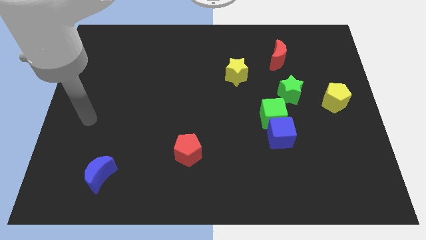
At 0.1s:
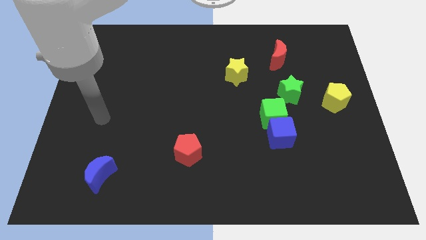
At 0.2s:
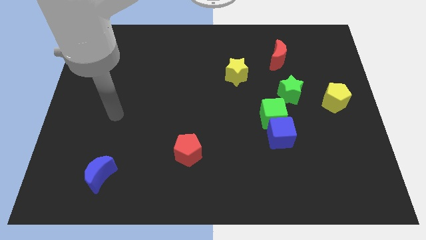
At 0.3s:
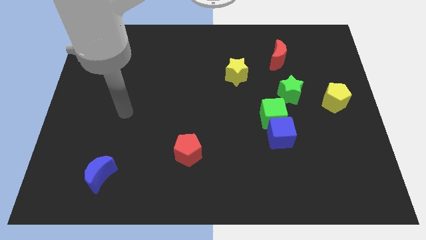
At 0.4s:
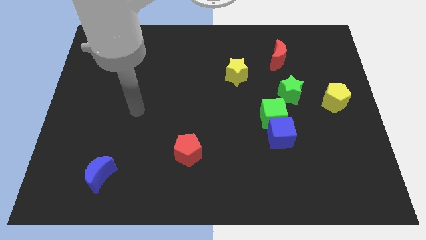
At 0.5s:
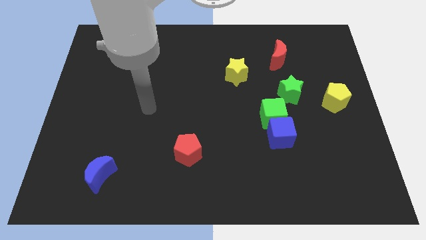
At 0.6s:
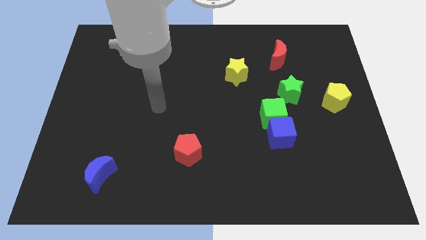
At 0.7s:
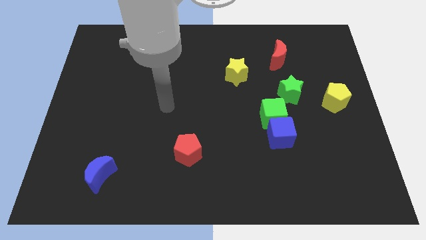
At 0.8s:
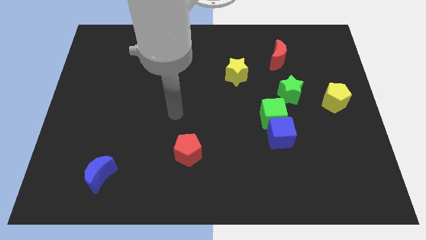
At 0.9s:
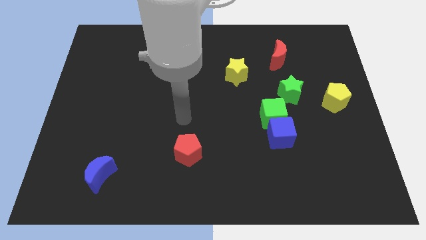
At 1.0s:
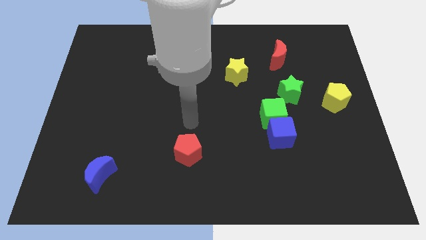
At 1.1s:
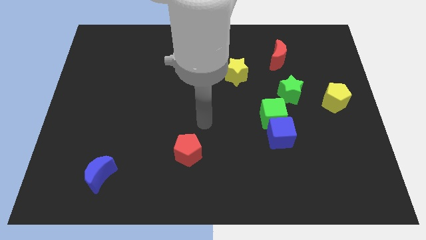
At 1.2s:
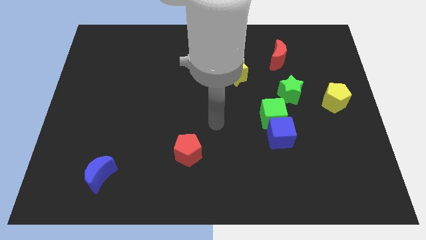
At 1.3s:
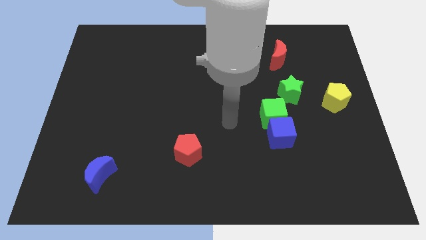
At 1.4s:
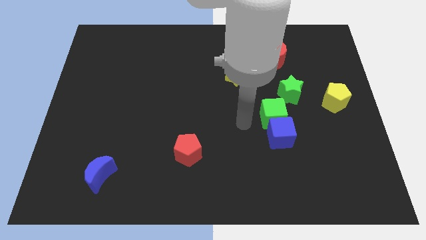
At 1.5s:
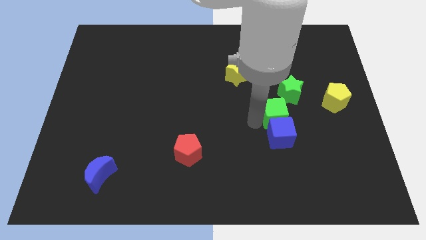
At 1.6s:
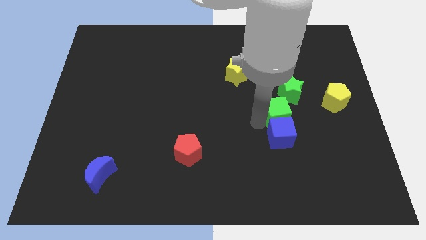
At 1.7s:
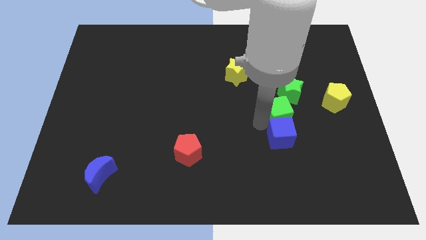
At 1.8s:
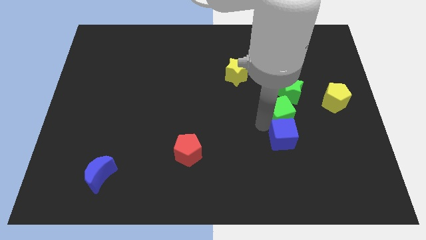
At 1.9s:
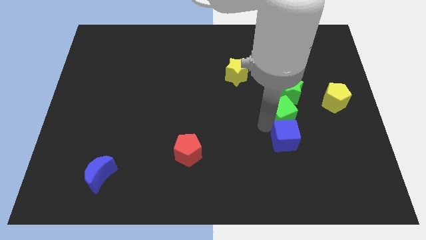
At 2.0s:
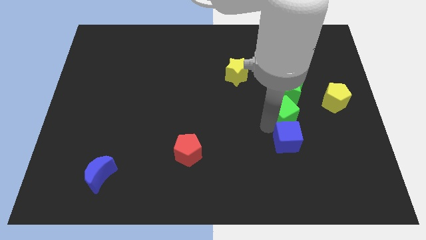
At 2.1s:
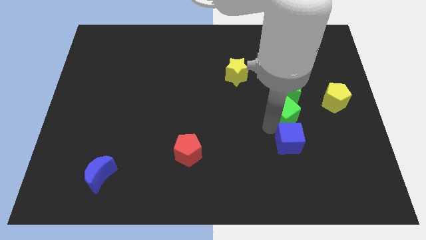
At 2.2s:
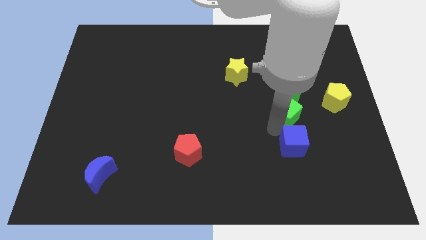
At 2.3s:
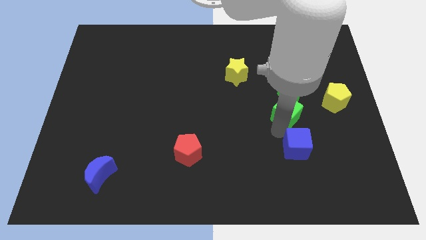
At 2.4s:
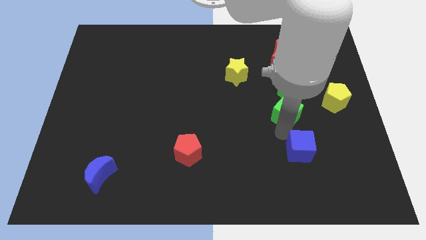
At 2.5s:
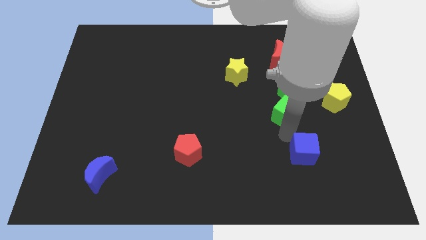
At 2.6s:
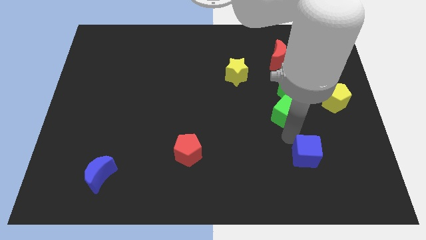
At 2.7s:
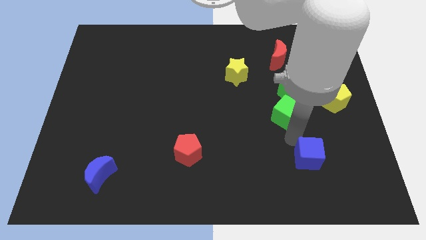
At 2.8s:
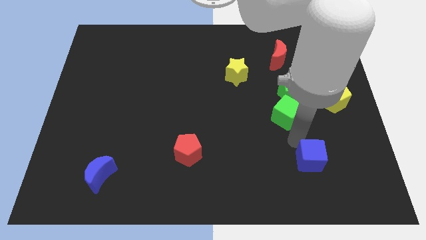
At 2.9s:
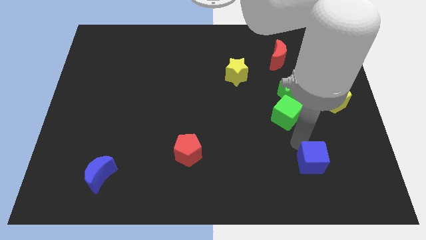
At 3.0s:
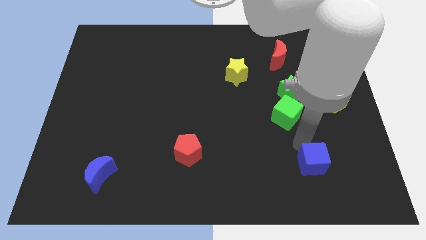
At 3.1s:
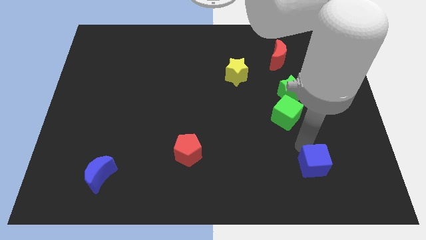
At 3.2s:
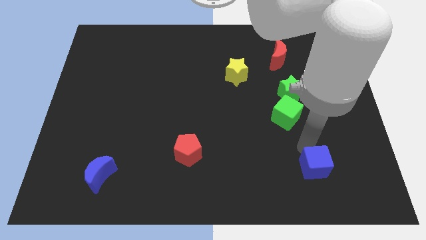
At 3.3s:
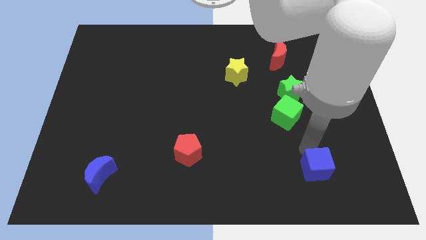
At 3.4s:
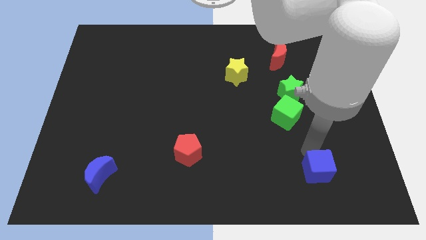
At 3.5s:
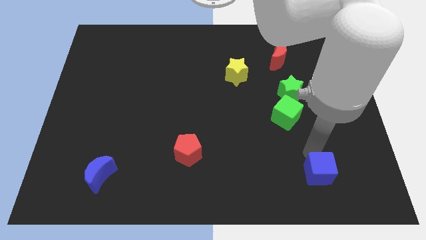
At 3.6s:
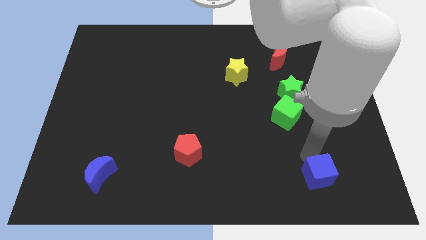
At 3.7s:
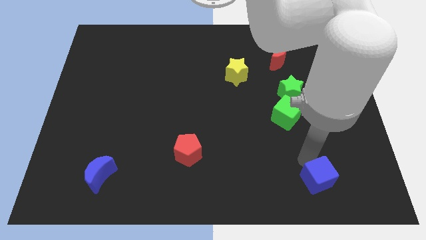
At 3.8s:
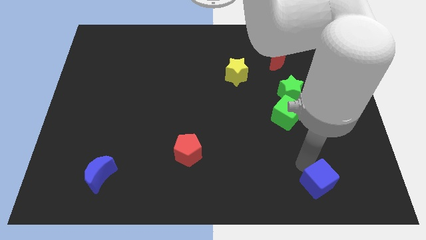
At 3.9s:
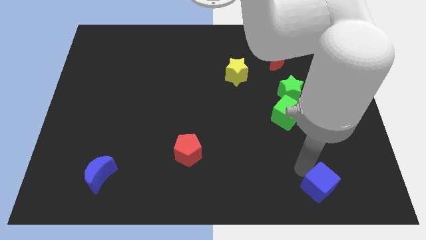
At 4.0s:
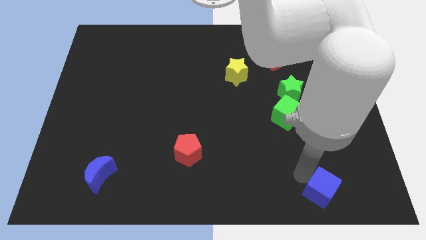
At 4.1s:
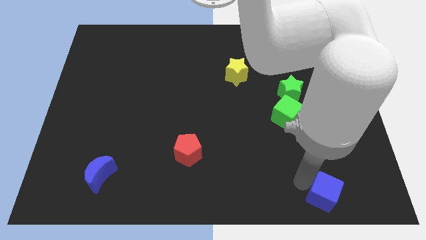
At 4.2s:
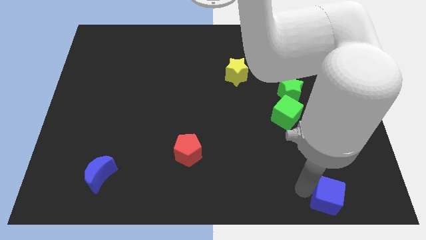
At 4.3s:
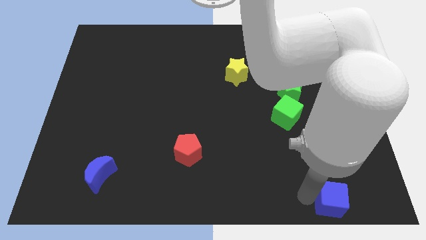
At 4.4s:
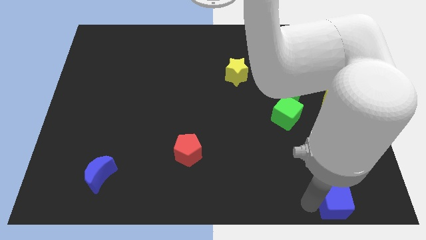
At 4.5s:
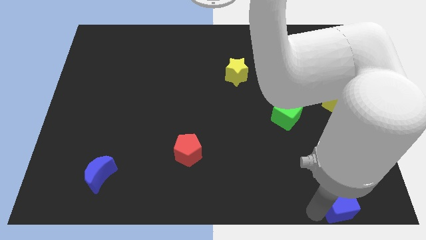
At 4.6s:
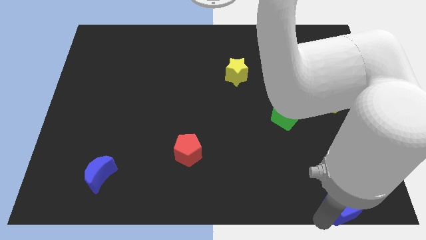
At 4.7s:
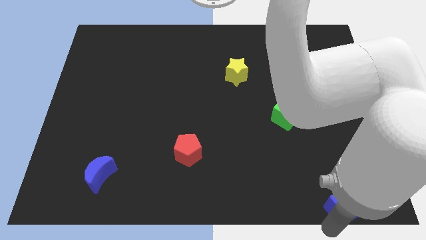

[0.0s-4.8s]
move the blue cube to the bottom right corner

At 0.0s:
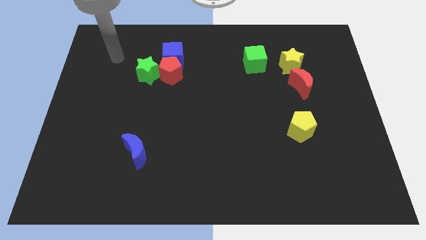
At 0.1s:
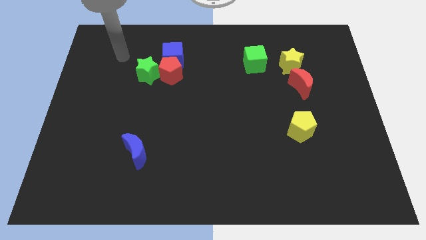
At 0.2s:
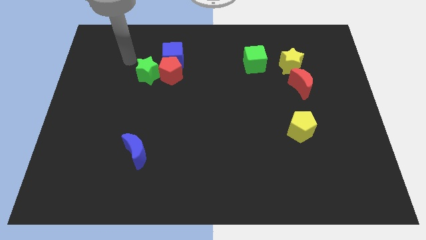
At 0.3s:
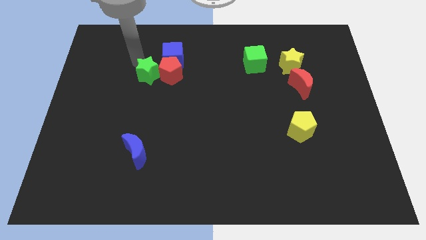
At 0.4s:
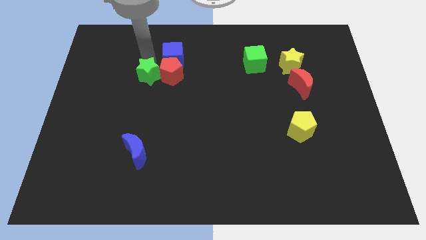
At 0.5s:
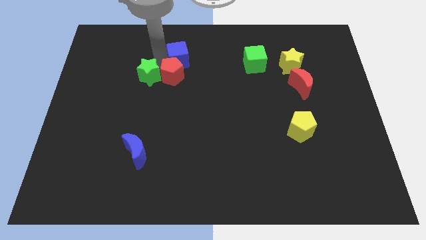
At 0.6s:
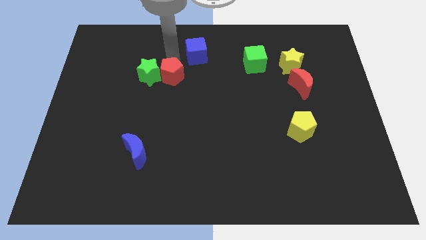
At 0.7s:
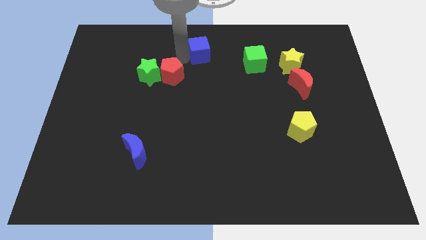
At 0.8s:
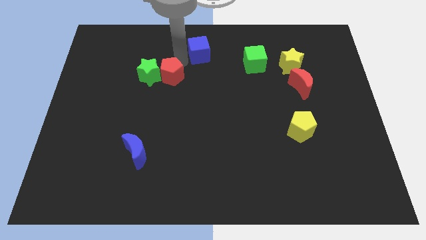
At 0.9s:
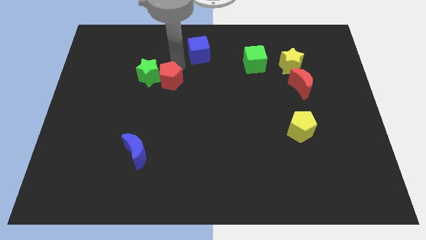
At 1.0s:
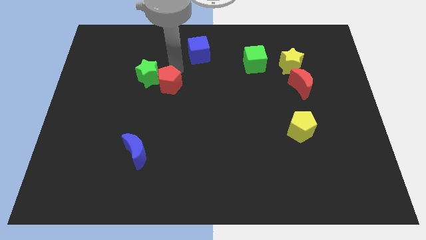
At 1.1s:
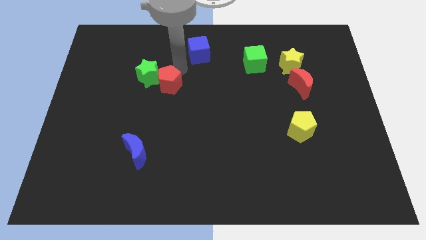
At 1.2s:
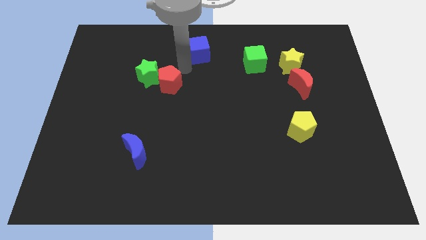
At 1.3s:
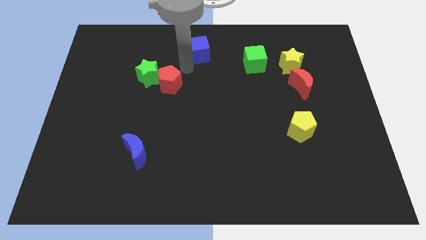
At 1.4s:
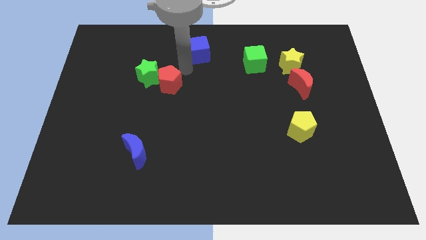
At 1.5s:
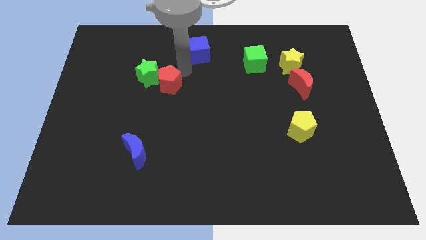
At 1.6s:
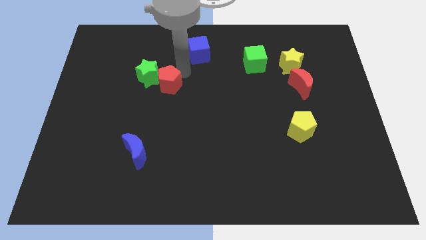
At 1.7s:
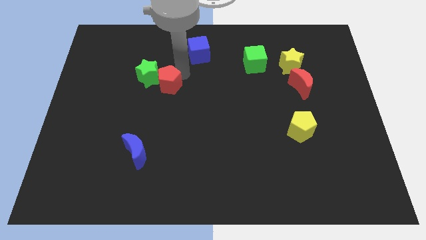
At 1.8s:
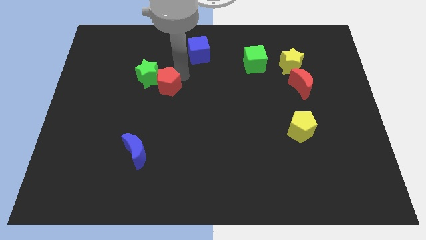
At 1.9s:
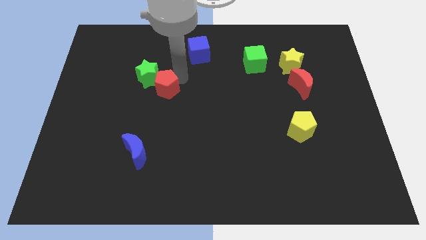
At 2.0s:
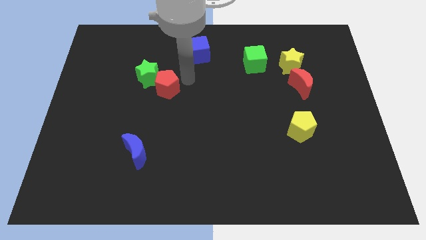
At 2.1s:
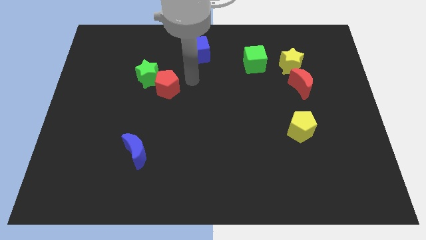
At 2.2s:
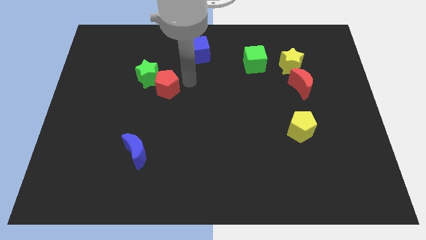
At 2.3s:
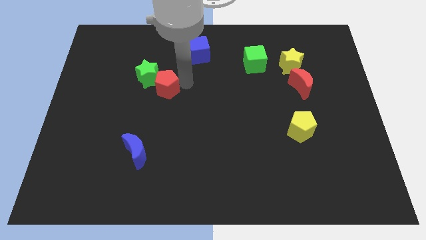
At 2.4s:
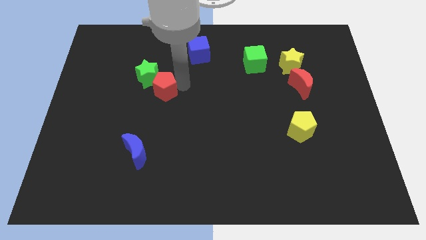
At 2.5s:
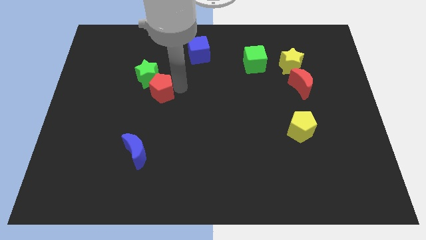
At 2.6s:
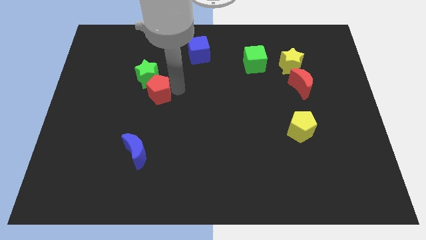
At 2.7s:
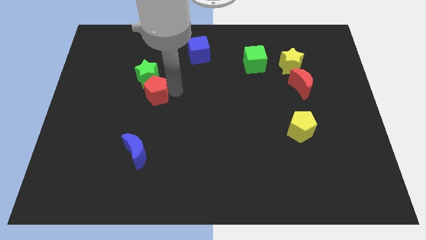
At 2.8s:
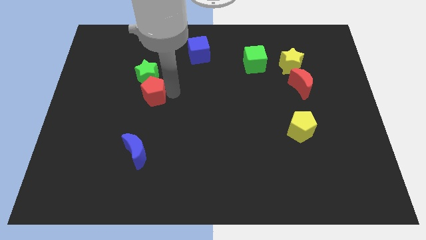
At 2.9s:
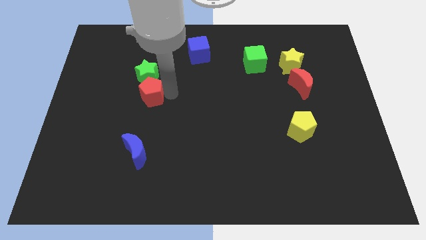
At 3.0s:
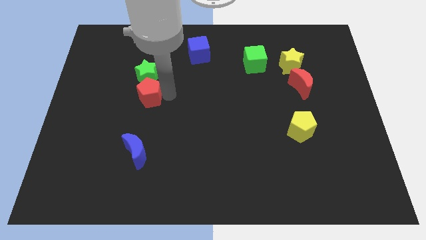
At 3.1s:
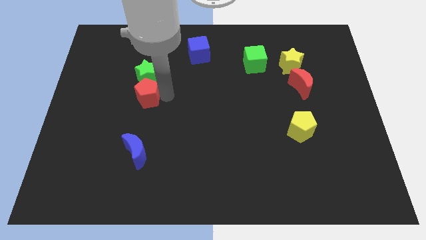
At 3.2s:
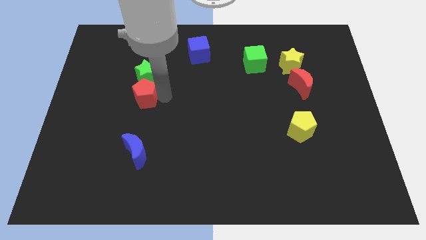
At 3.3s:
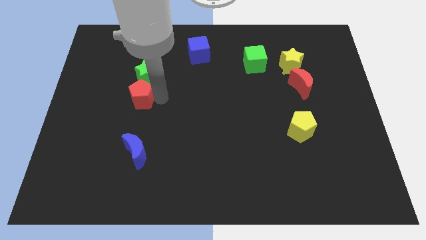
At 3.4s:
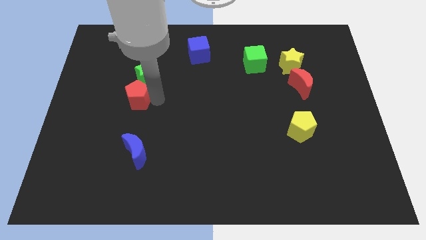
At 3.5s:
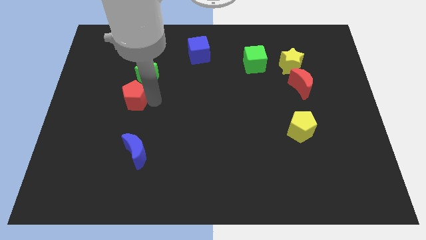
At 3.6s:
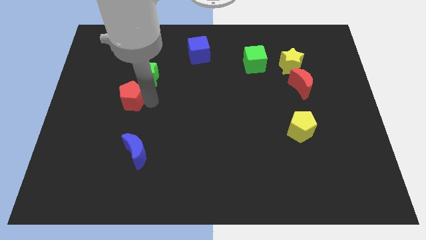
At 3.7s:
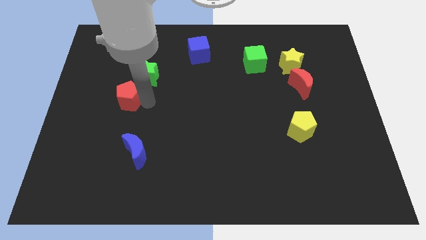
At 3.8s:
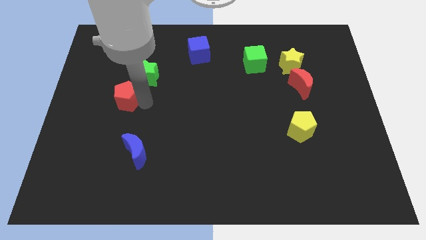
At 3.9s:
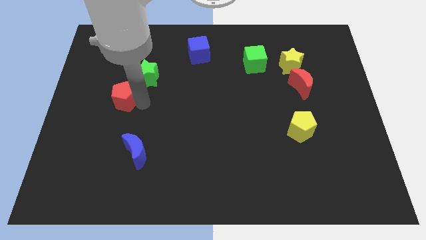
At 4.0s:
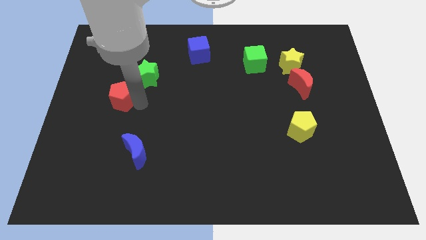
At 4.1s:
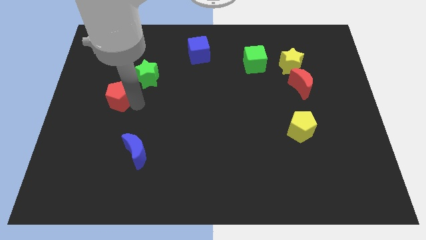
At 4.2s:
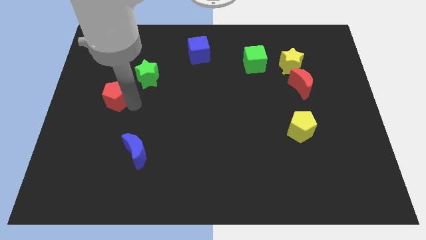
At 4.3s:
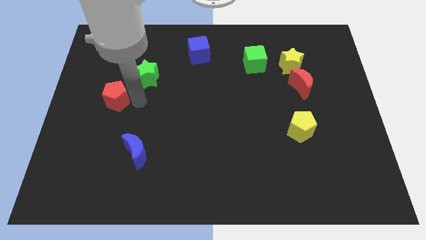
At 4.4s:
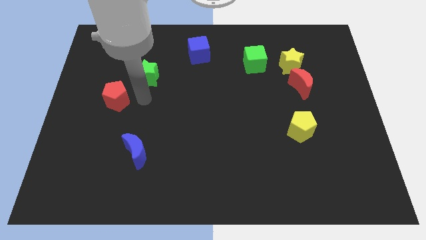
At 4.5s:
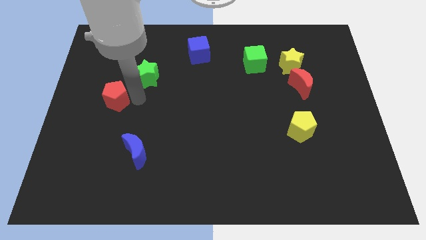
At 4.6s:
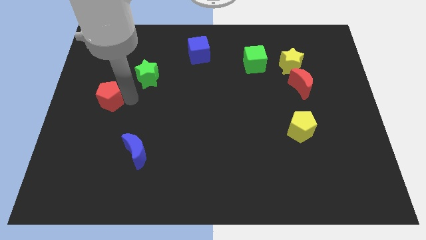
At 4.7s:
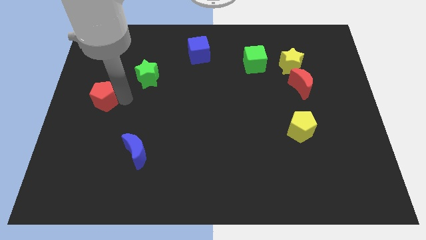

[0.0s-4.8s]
slide the red pentagon to the left side of the board
